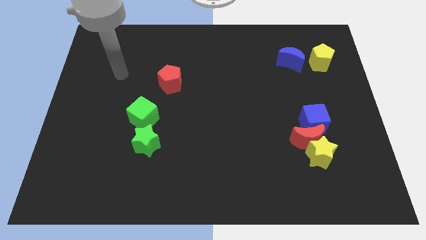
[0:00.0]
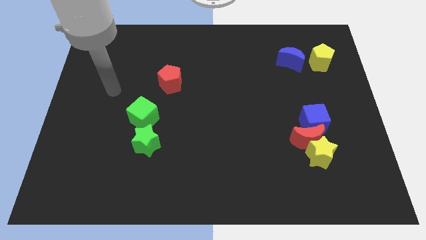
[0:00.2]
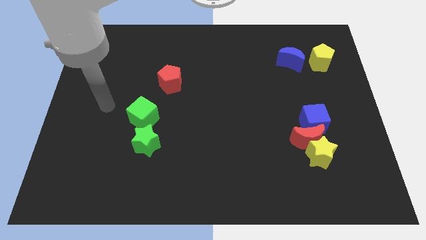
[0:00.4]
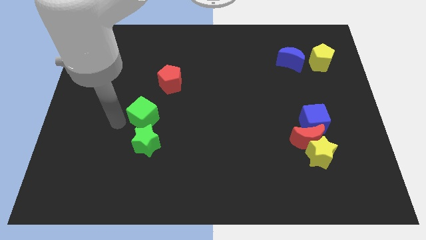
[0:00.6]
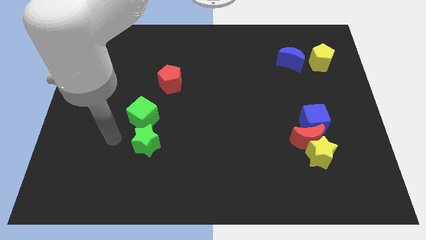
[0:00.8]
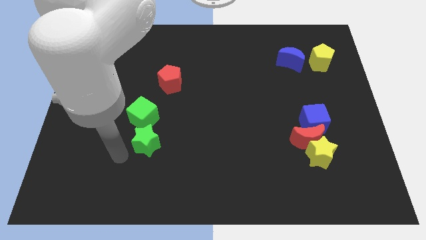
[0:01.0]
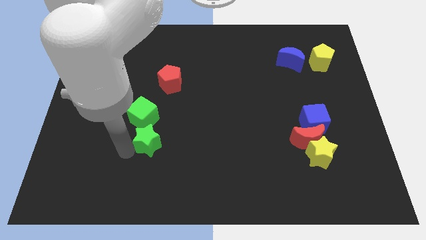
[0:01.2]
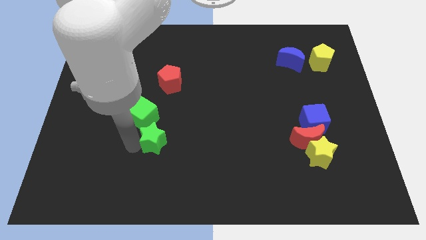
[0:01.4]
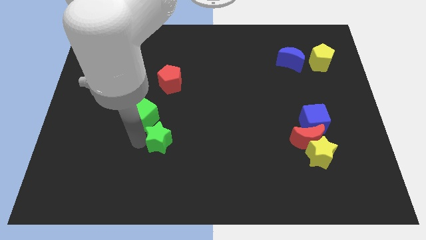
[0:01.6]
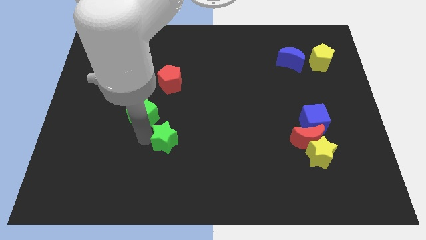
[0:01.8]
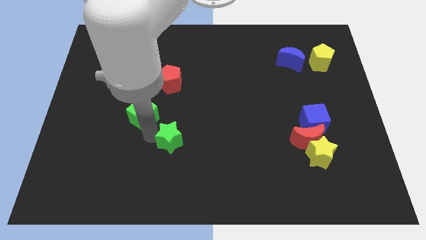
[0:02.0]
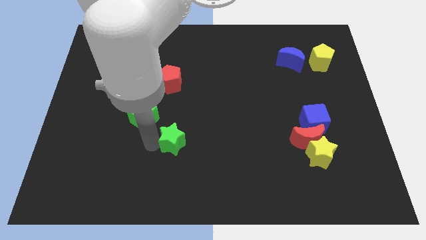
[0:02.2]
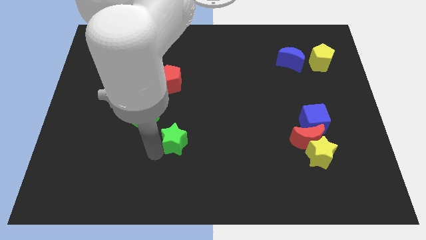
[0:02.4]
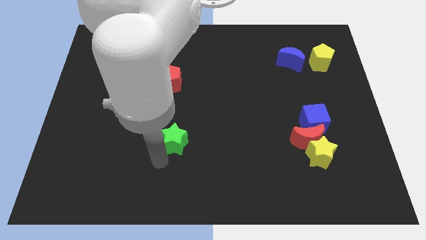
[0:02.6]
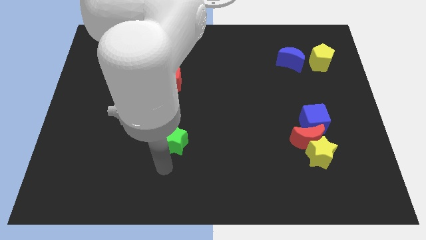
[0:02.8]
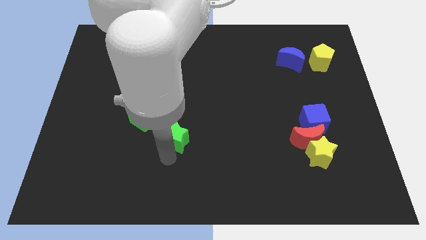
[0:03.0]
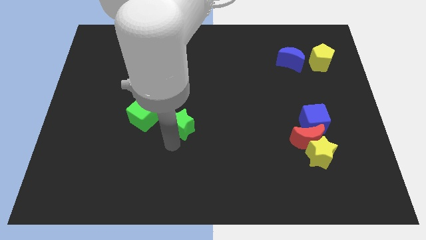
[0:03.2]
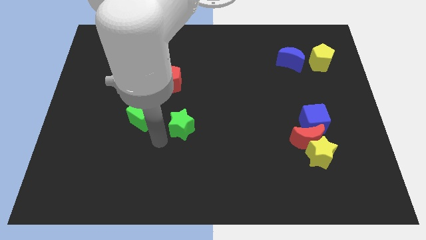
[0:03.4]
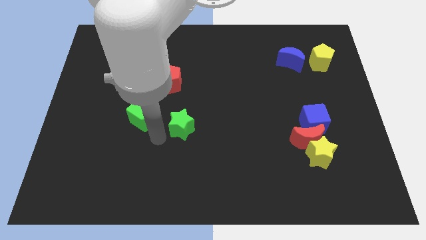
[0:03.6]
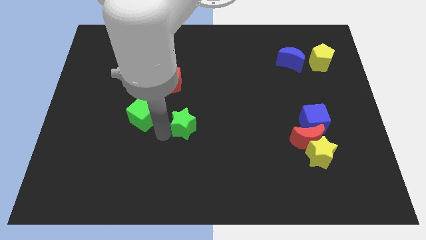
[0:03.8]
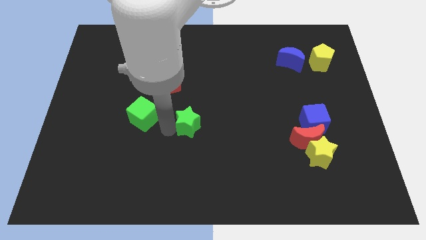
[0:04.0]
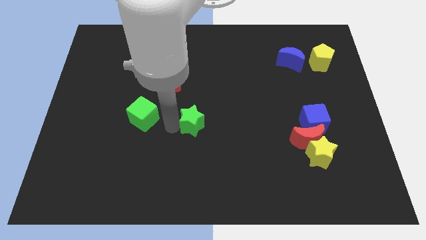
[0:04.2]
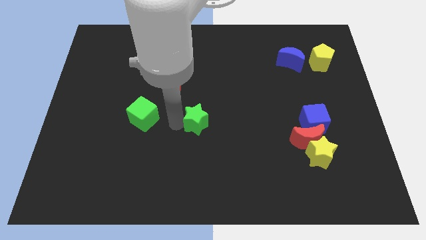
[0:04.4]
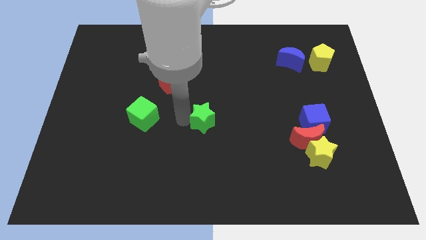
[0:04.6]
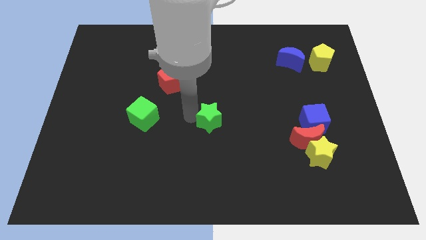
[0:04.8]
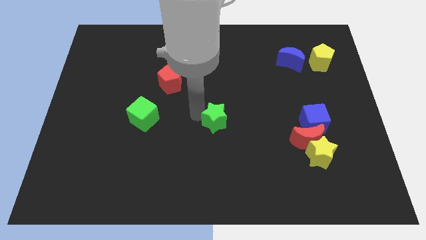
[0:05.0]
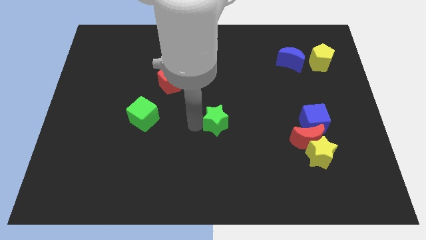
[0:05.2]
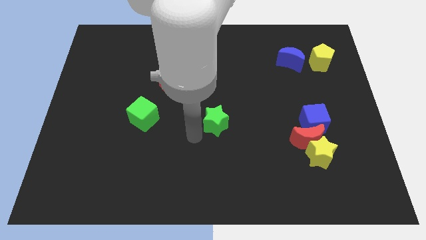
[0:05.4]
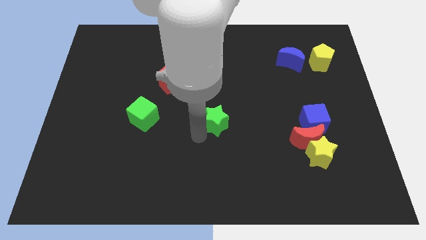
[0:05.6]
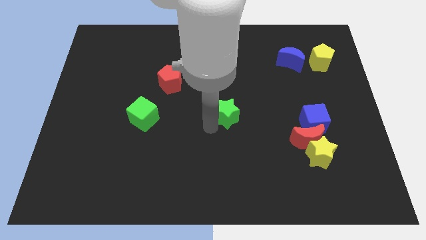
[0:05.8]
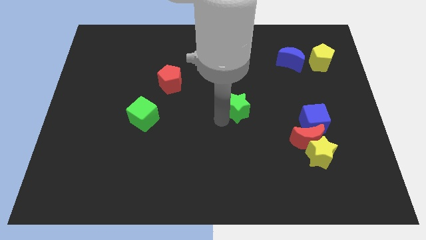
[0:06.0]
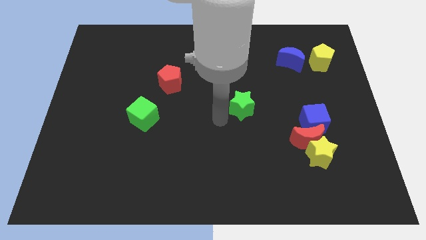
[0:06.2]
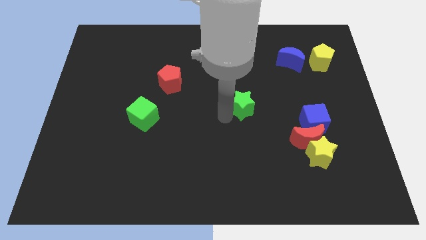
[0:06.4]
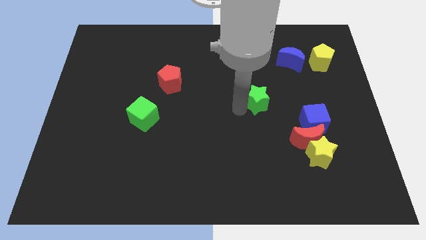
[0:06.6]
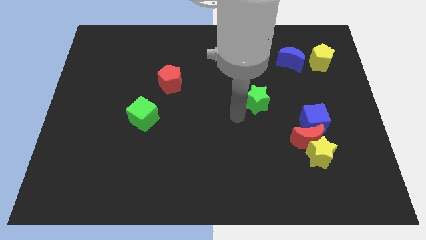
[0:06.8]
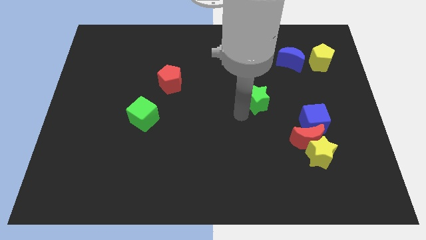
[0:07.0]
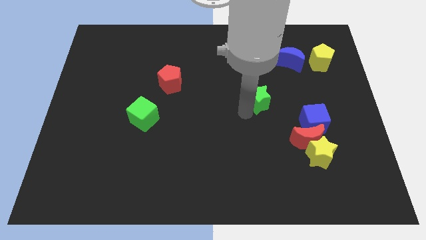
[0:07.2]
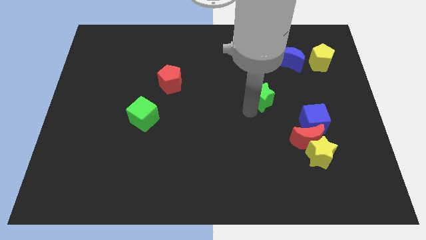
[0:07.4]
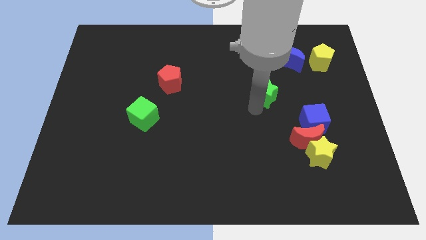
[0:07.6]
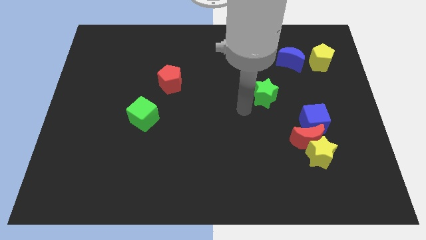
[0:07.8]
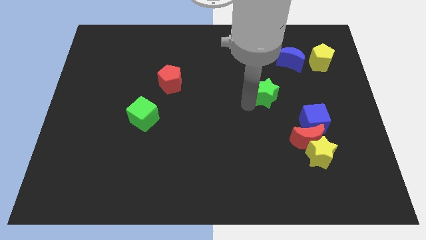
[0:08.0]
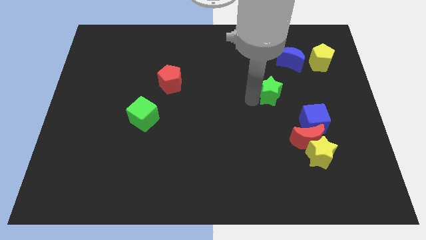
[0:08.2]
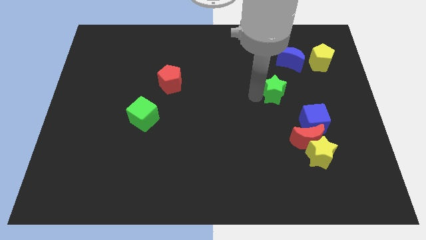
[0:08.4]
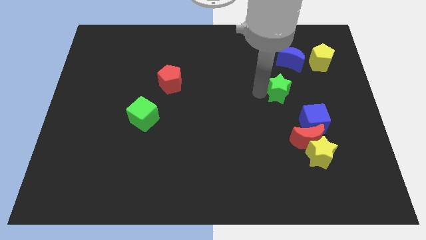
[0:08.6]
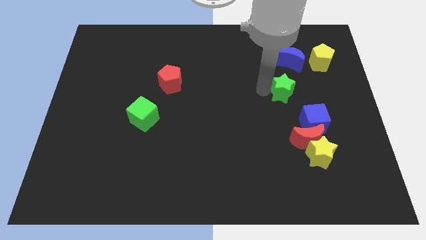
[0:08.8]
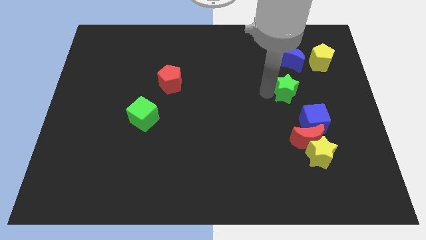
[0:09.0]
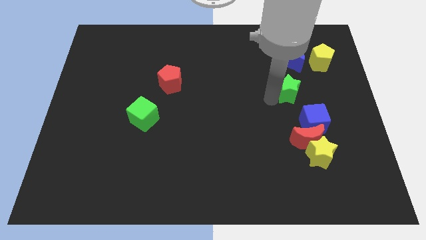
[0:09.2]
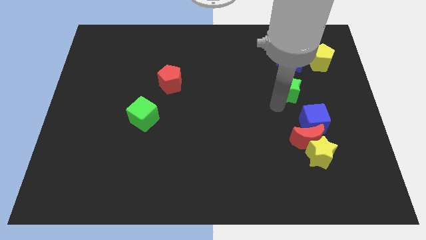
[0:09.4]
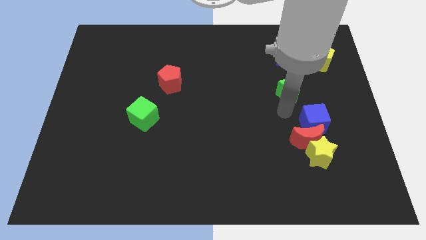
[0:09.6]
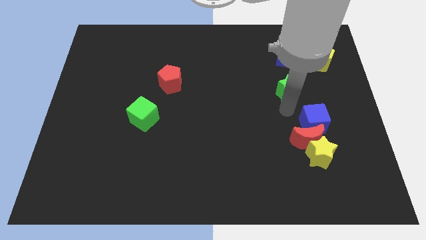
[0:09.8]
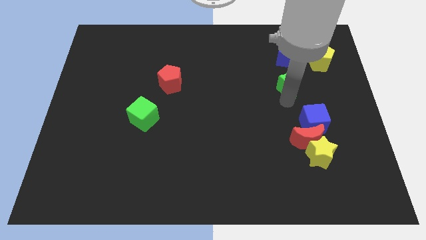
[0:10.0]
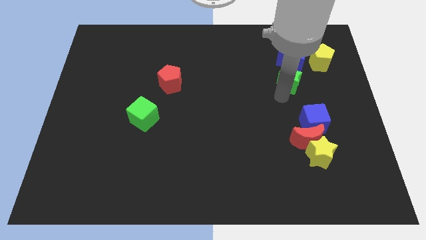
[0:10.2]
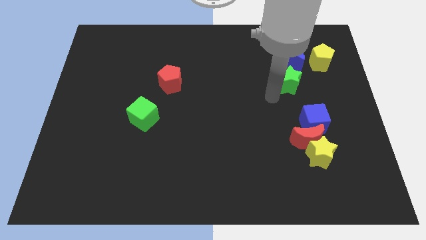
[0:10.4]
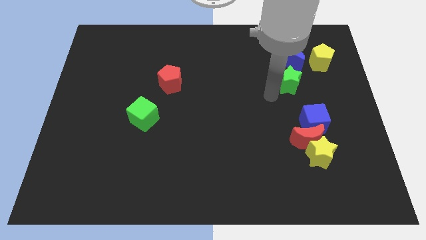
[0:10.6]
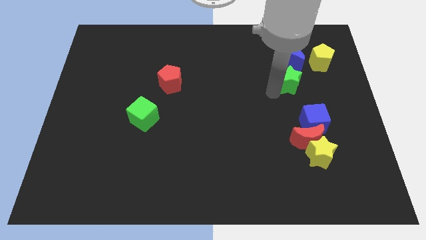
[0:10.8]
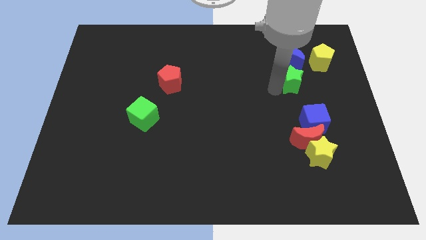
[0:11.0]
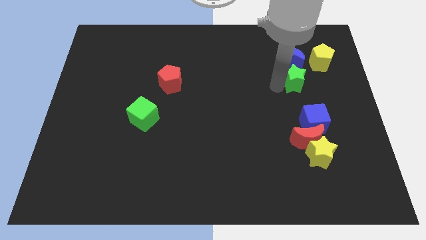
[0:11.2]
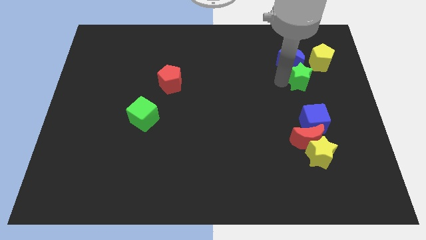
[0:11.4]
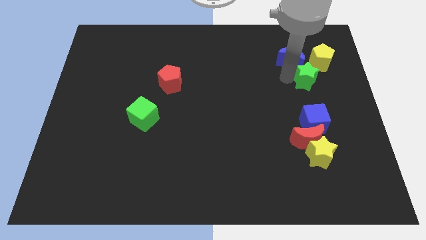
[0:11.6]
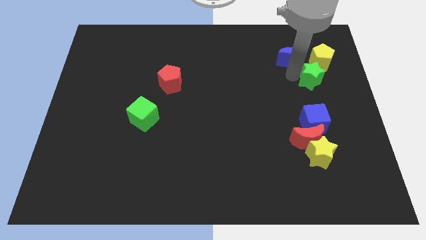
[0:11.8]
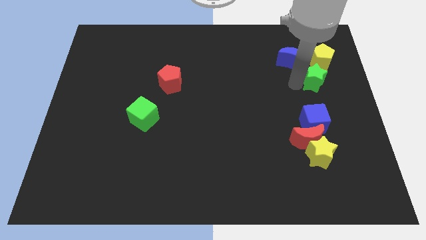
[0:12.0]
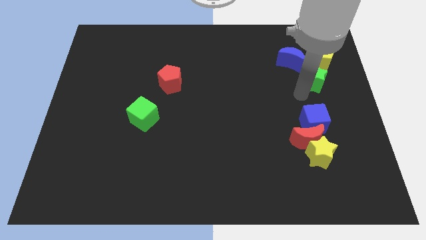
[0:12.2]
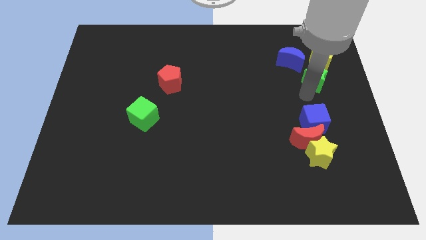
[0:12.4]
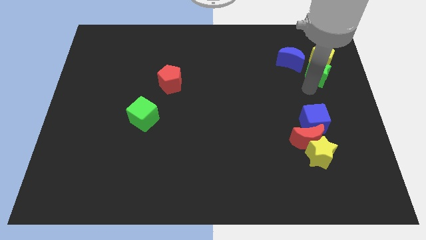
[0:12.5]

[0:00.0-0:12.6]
push the green star next to the yellow pentagon

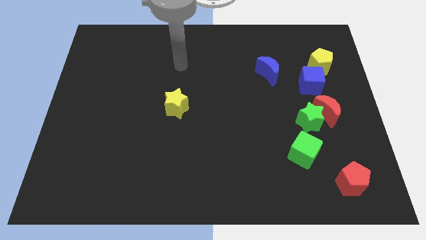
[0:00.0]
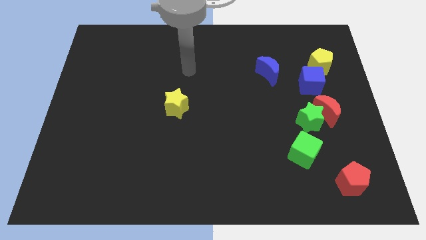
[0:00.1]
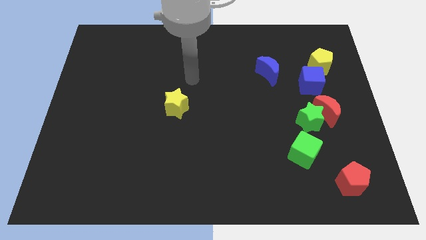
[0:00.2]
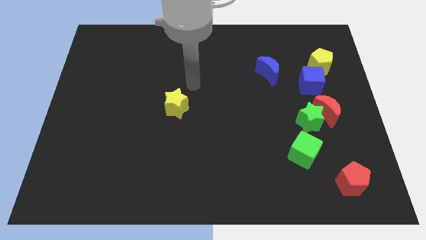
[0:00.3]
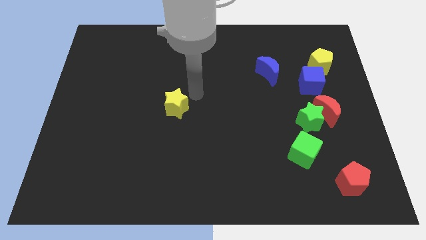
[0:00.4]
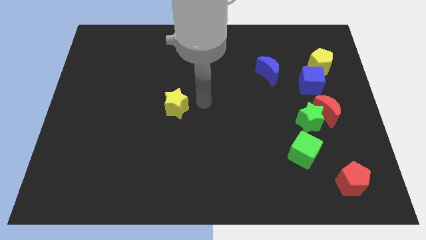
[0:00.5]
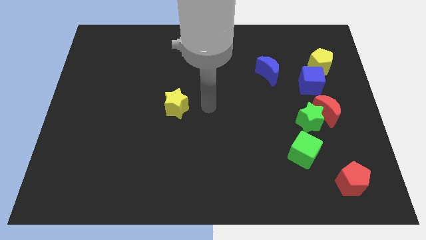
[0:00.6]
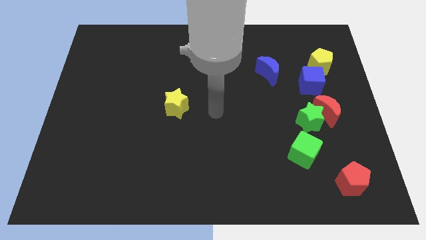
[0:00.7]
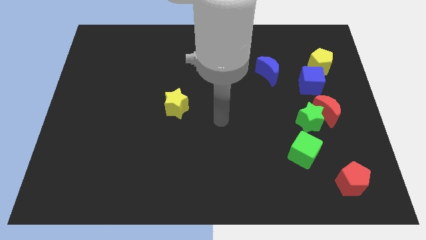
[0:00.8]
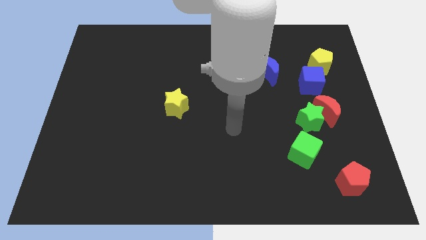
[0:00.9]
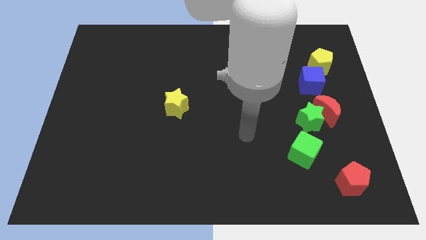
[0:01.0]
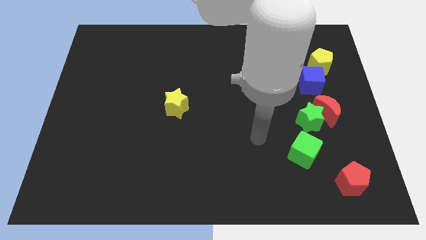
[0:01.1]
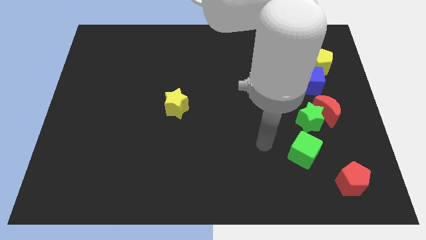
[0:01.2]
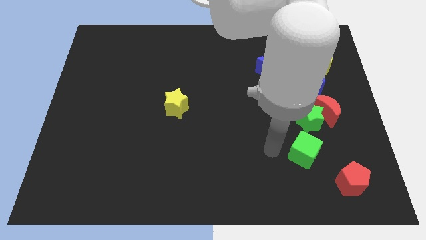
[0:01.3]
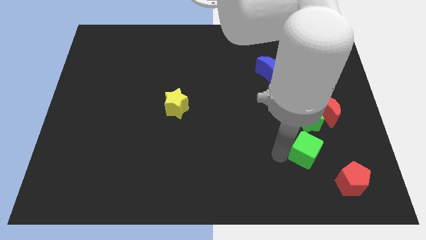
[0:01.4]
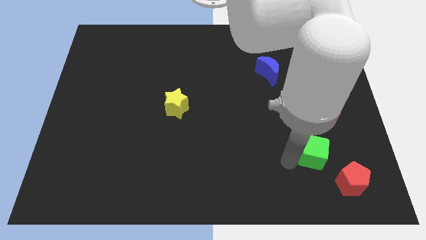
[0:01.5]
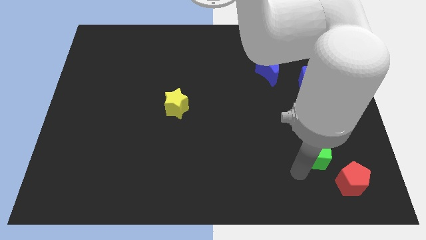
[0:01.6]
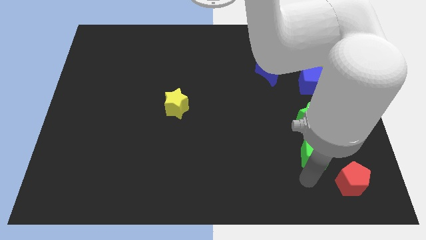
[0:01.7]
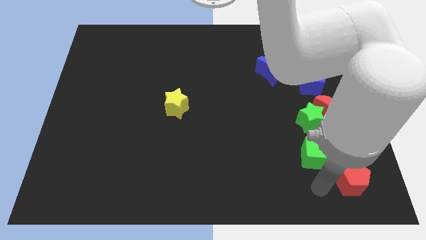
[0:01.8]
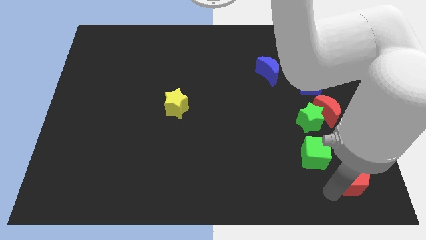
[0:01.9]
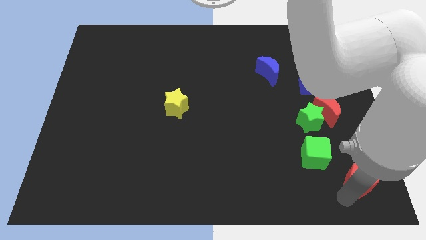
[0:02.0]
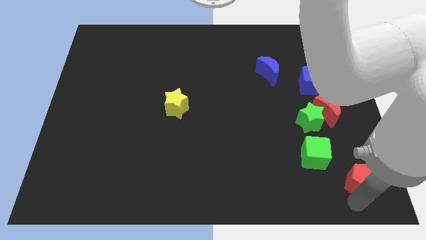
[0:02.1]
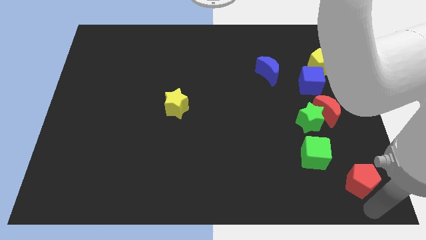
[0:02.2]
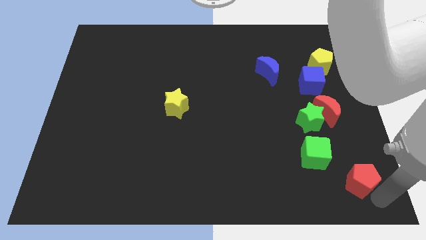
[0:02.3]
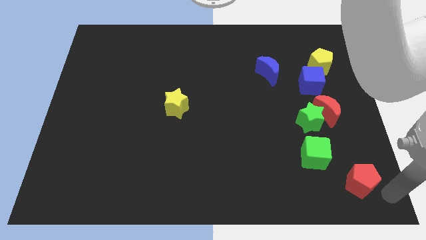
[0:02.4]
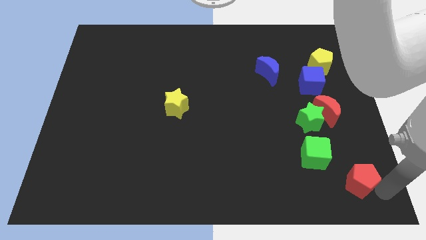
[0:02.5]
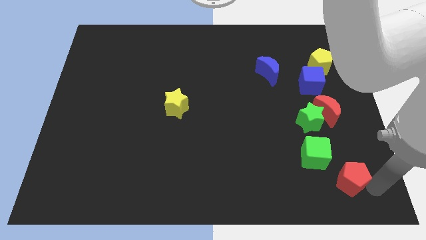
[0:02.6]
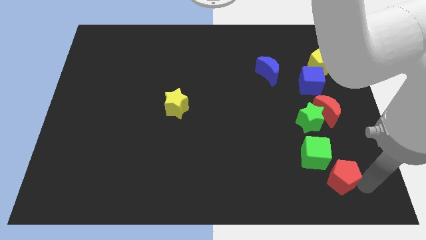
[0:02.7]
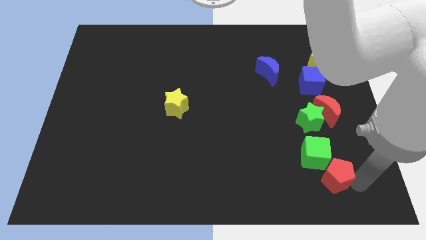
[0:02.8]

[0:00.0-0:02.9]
push the red pentagon towards the green cube
